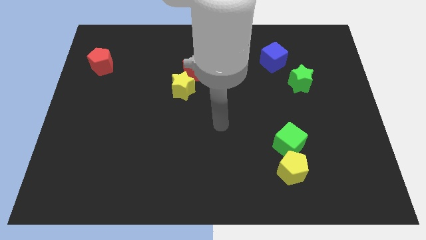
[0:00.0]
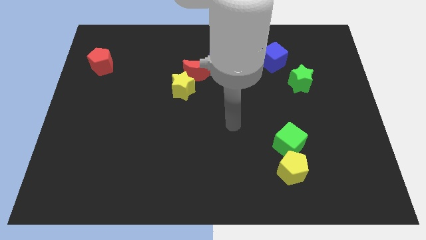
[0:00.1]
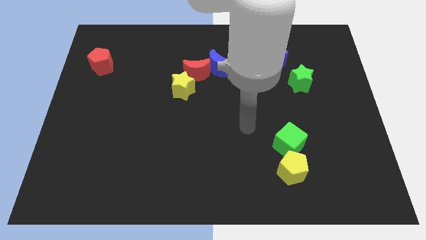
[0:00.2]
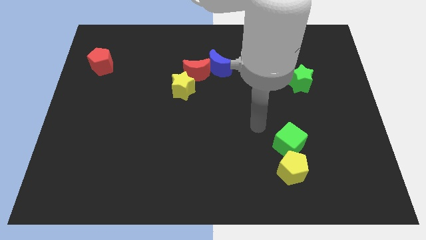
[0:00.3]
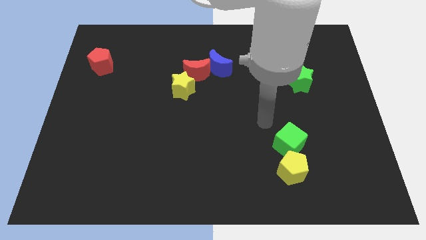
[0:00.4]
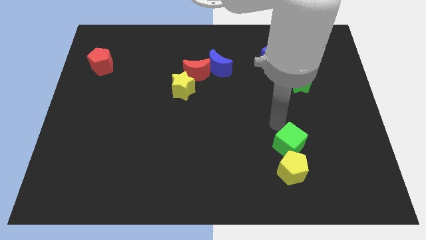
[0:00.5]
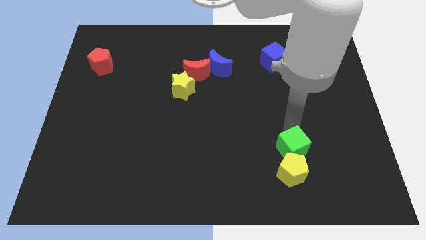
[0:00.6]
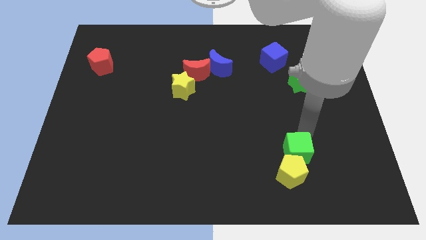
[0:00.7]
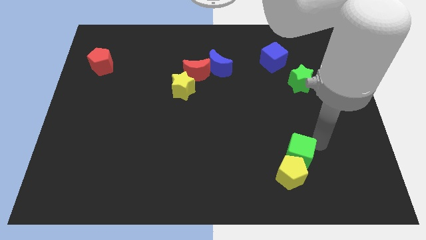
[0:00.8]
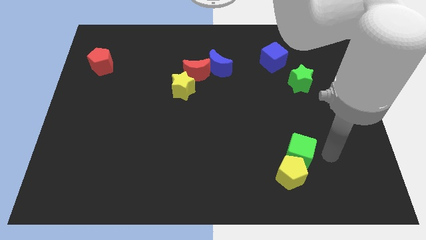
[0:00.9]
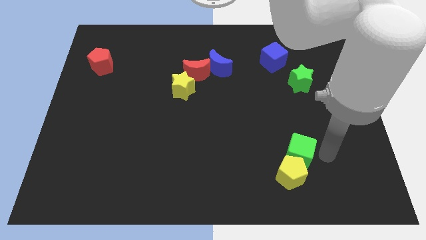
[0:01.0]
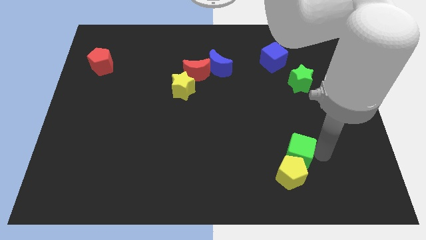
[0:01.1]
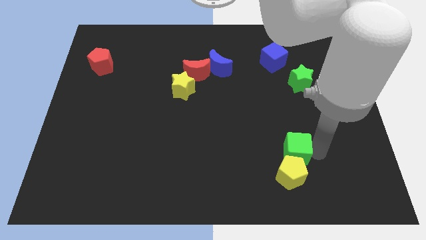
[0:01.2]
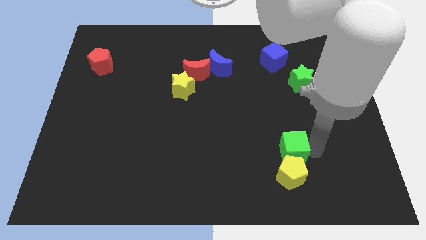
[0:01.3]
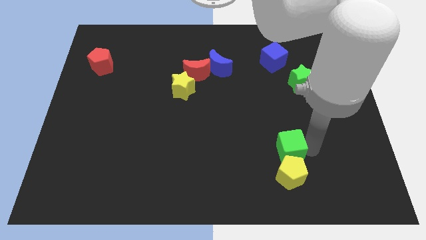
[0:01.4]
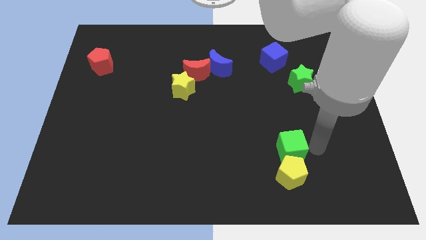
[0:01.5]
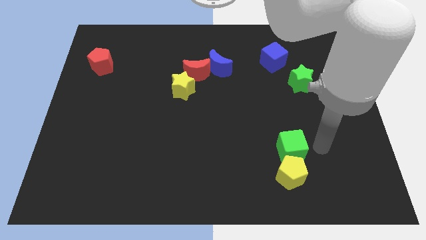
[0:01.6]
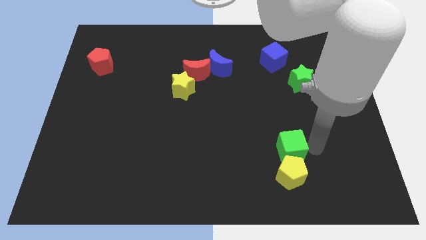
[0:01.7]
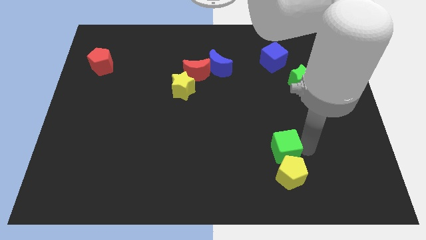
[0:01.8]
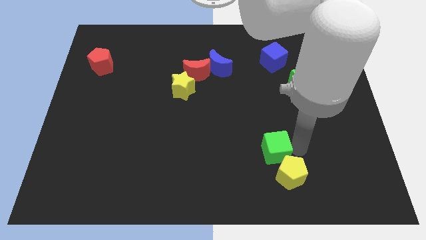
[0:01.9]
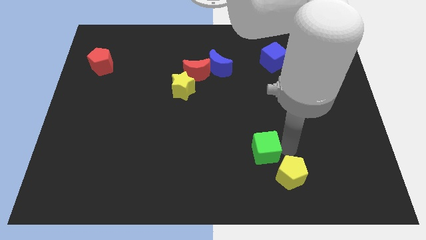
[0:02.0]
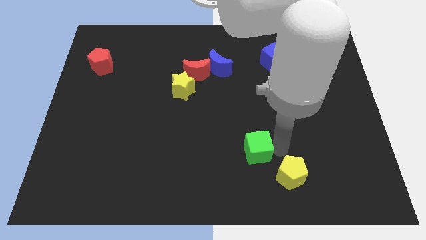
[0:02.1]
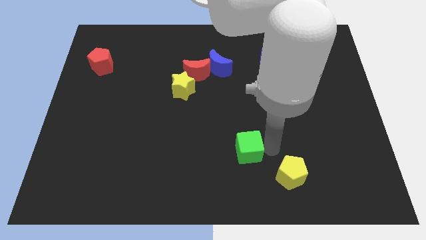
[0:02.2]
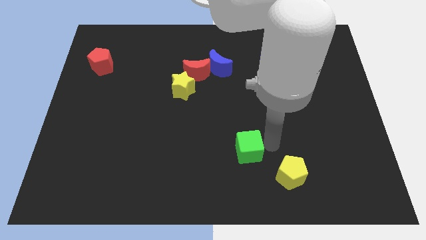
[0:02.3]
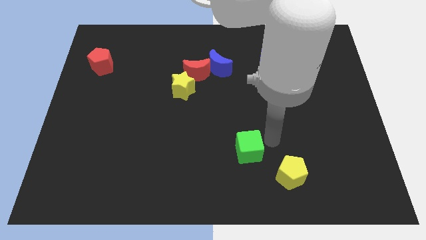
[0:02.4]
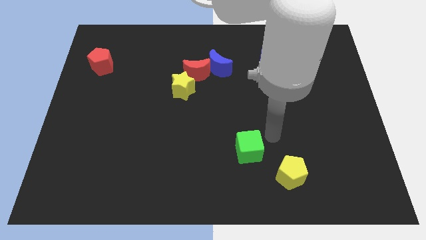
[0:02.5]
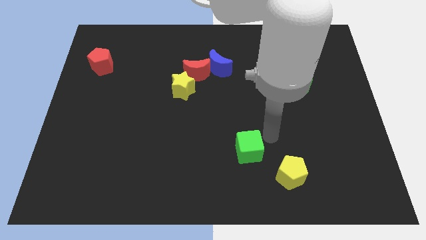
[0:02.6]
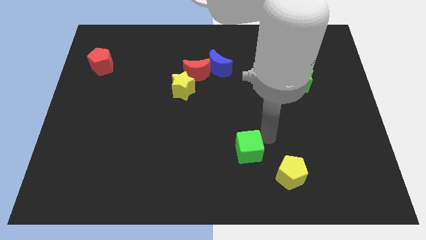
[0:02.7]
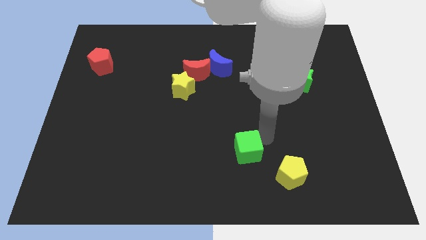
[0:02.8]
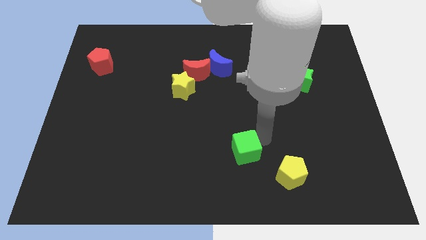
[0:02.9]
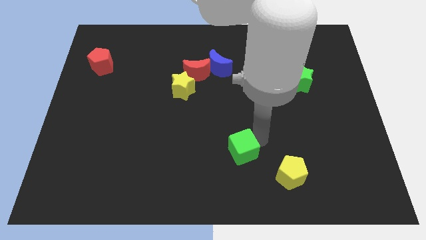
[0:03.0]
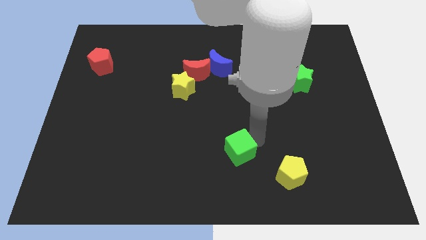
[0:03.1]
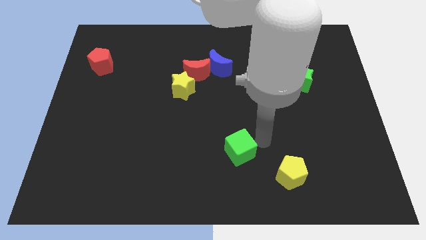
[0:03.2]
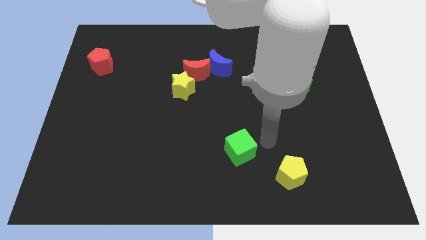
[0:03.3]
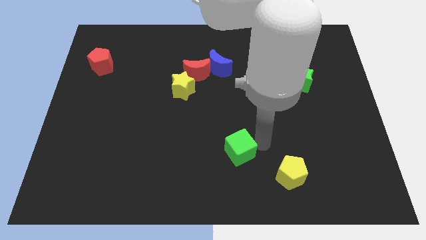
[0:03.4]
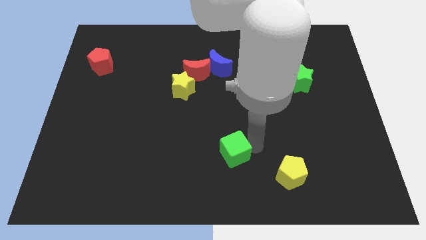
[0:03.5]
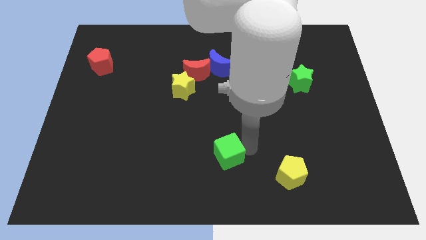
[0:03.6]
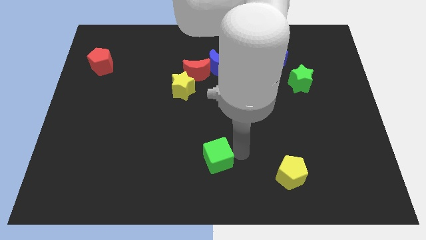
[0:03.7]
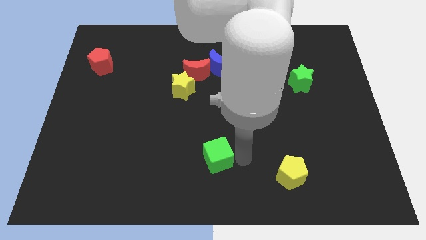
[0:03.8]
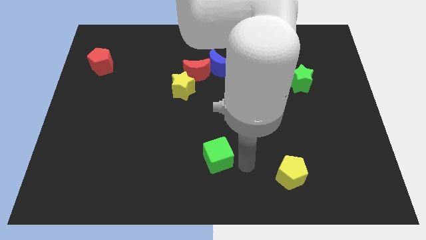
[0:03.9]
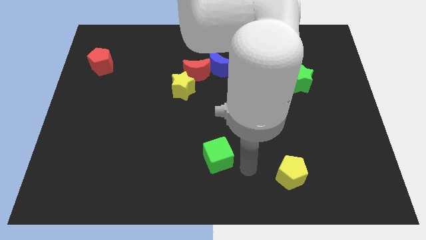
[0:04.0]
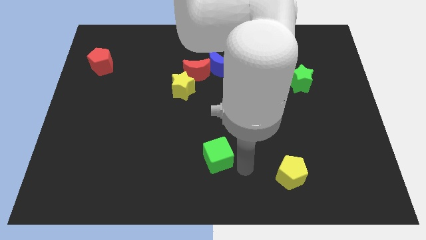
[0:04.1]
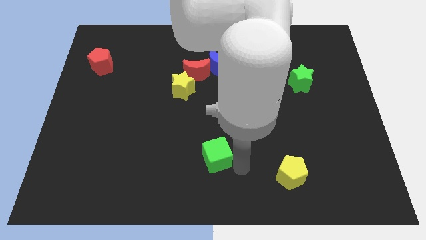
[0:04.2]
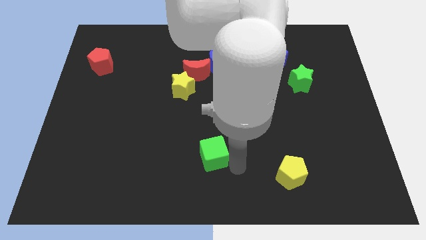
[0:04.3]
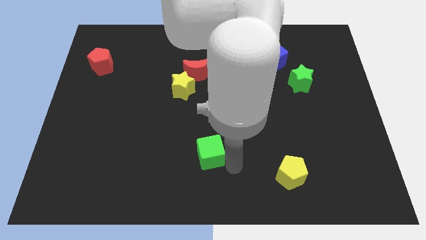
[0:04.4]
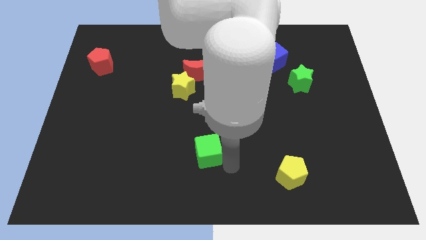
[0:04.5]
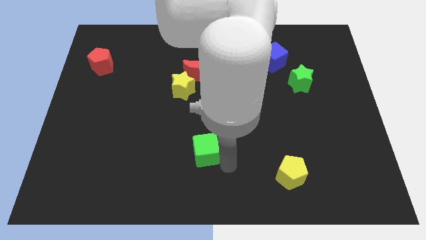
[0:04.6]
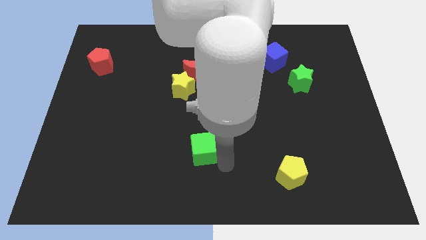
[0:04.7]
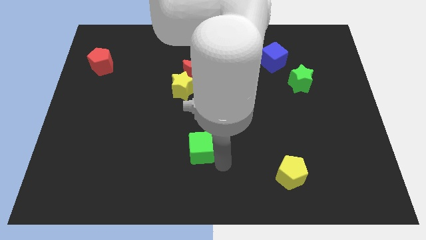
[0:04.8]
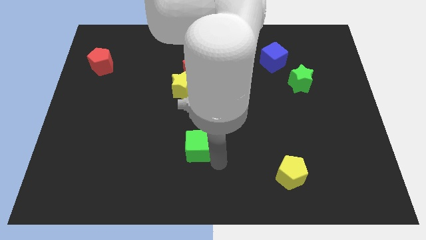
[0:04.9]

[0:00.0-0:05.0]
slide the green cube left

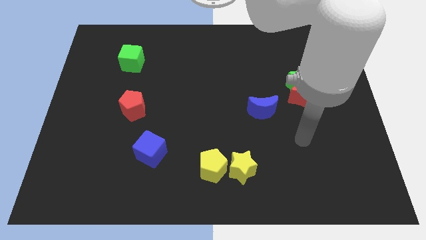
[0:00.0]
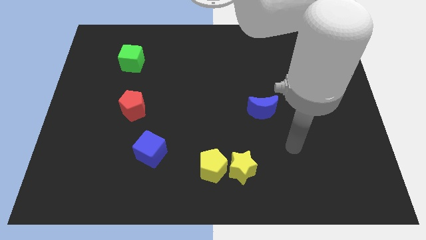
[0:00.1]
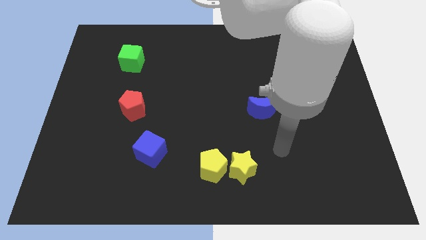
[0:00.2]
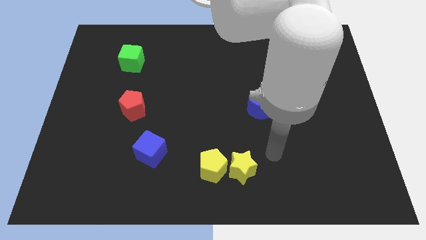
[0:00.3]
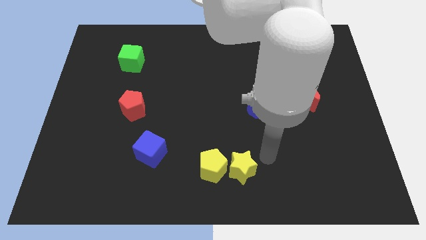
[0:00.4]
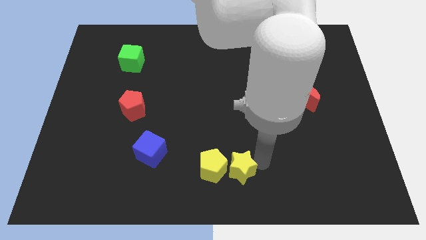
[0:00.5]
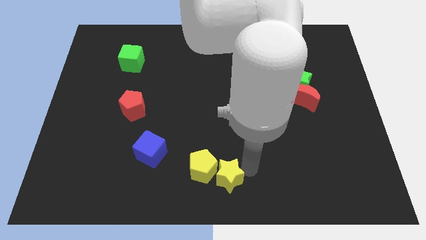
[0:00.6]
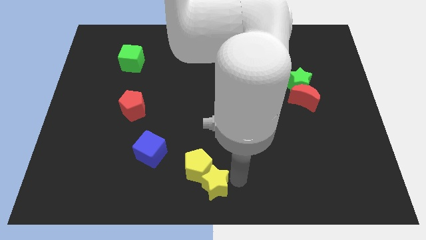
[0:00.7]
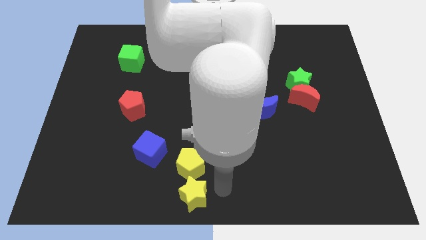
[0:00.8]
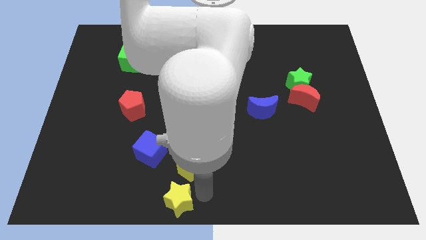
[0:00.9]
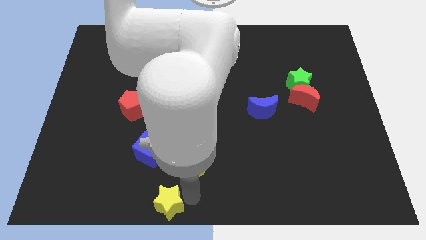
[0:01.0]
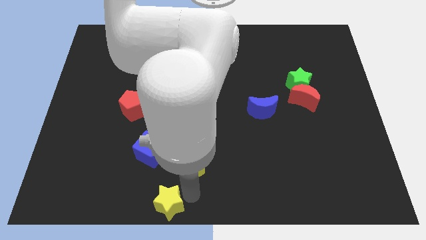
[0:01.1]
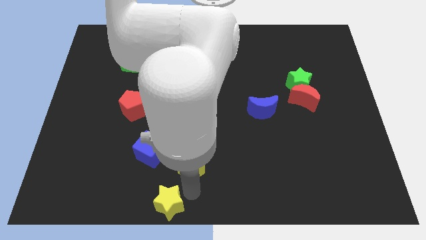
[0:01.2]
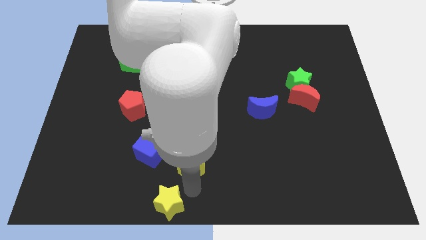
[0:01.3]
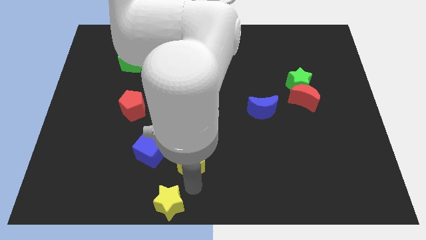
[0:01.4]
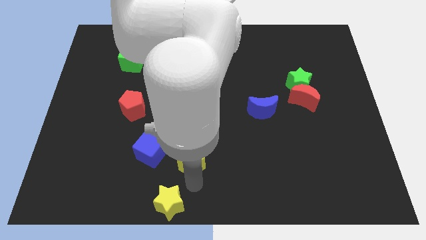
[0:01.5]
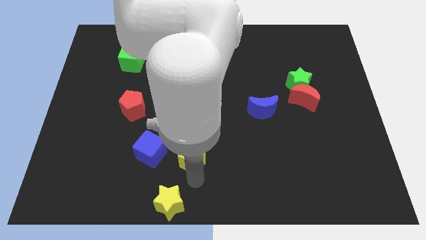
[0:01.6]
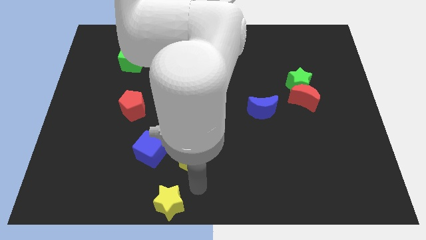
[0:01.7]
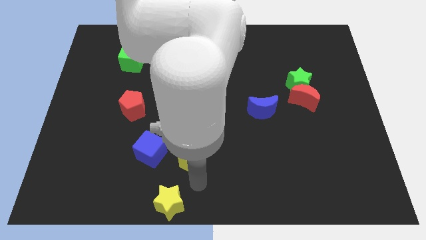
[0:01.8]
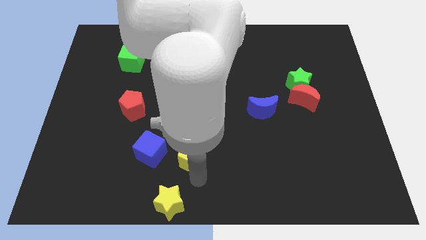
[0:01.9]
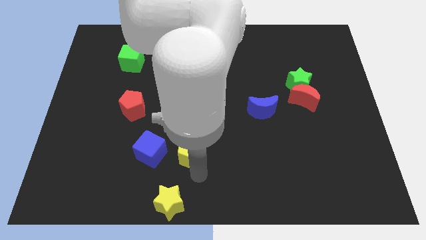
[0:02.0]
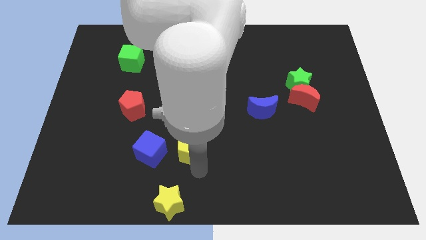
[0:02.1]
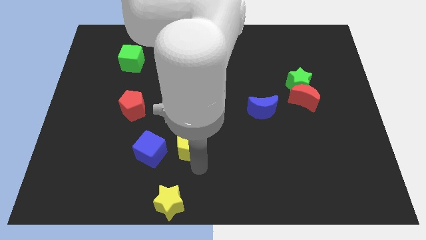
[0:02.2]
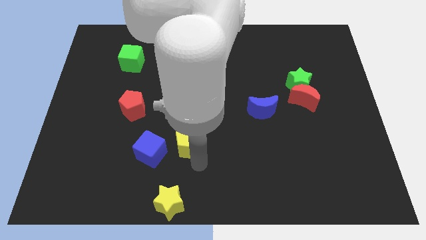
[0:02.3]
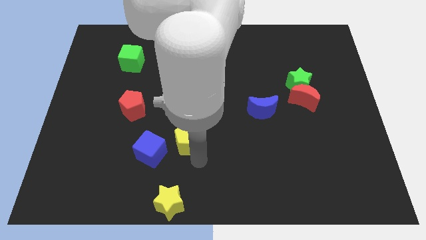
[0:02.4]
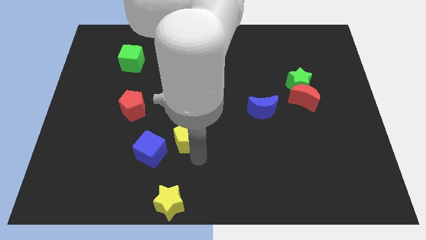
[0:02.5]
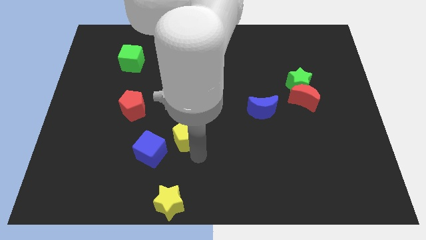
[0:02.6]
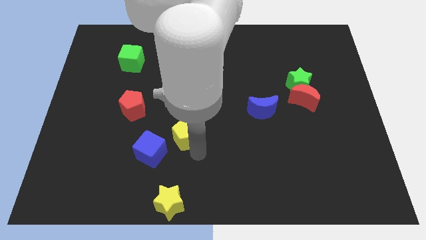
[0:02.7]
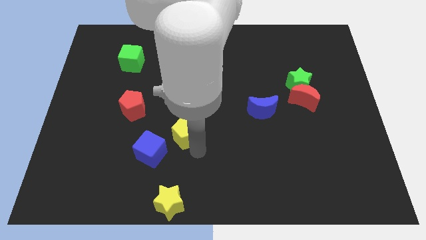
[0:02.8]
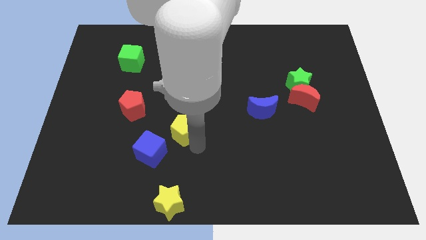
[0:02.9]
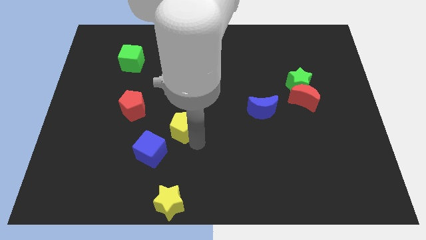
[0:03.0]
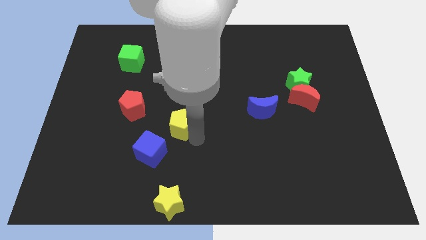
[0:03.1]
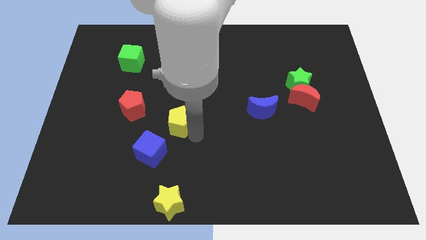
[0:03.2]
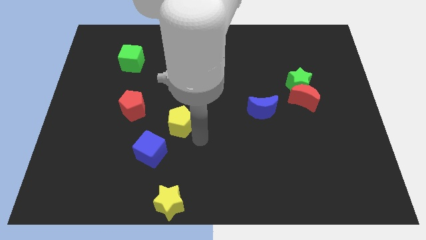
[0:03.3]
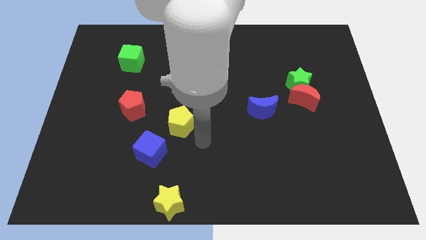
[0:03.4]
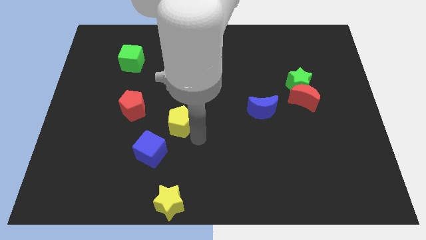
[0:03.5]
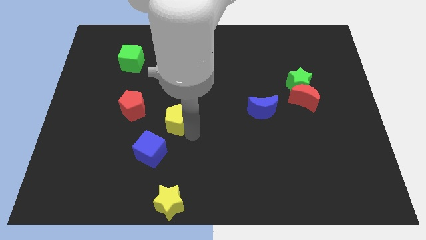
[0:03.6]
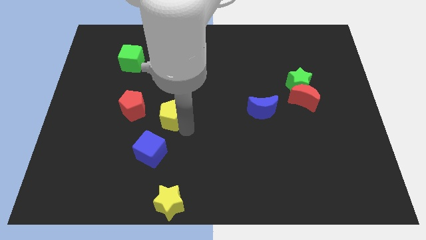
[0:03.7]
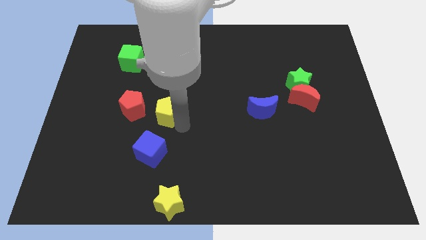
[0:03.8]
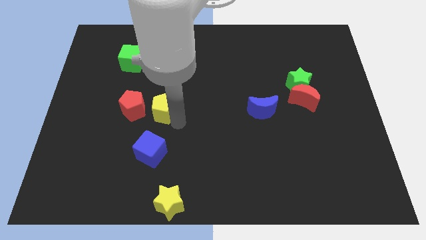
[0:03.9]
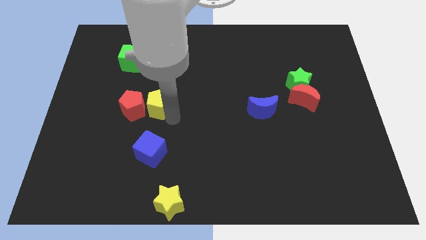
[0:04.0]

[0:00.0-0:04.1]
move the yellow pentagon upwards and left diagonally
